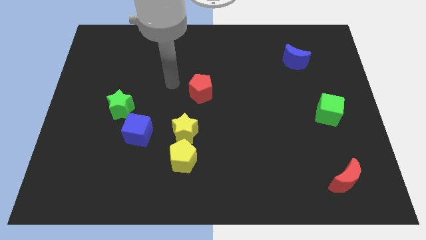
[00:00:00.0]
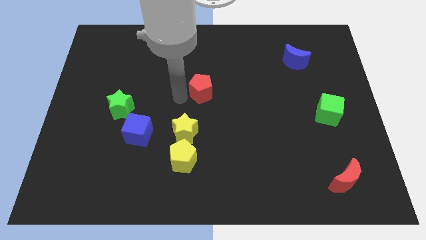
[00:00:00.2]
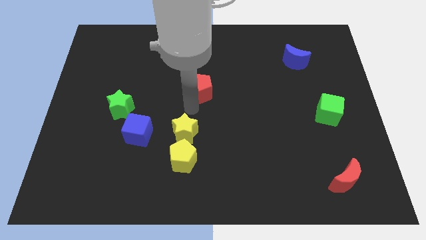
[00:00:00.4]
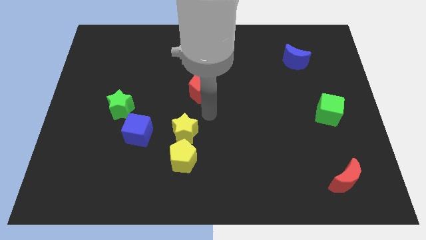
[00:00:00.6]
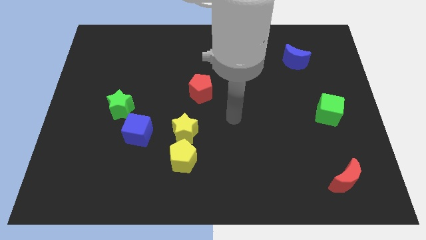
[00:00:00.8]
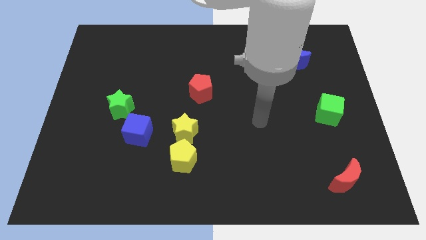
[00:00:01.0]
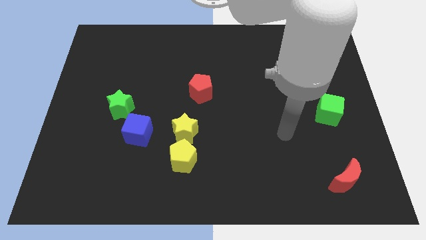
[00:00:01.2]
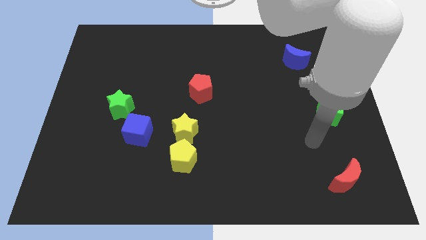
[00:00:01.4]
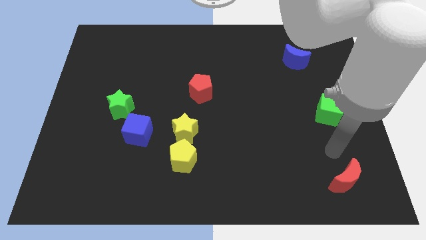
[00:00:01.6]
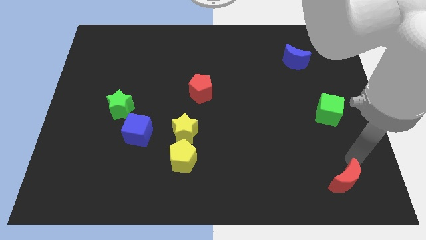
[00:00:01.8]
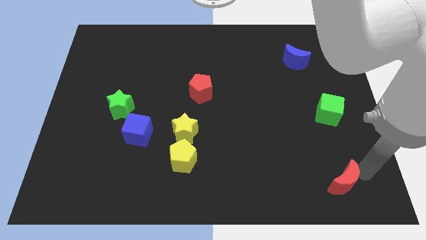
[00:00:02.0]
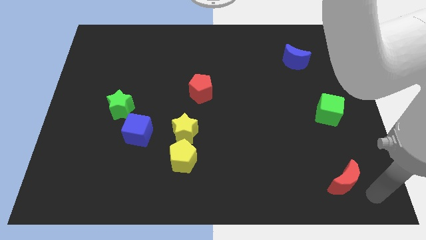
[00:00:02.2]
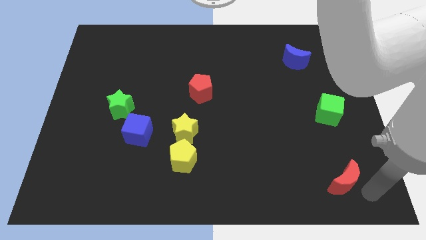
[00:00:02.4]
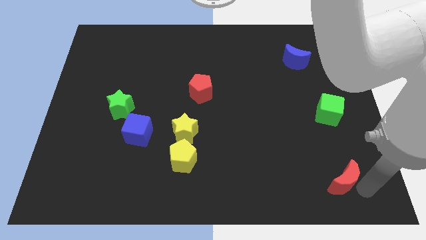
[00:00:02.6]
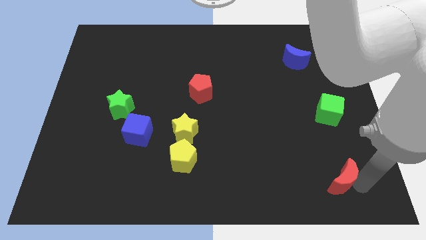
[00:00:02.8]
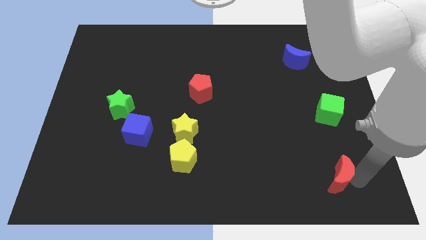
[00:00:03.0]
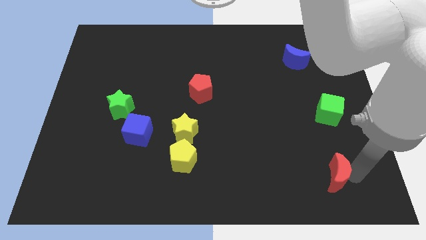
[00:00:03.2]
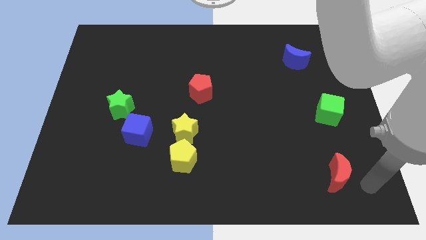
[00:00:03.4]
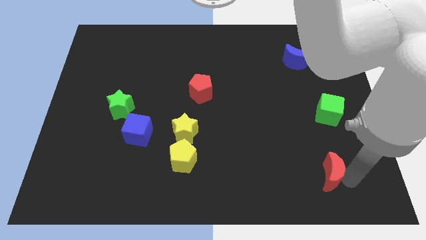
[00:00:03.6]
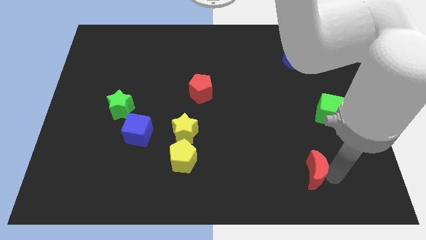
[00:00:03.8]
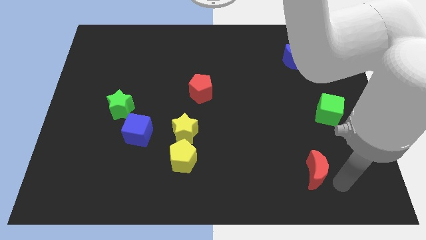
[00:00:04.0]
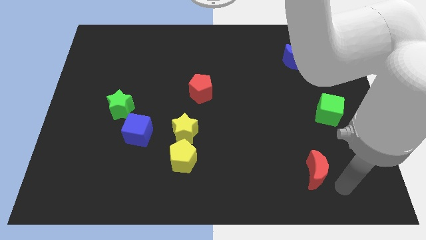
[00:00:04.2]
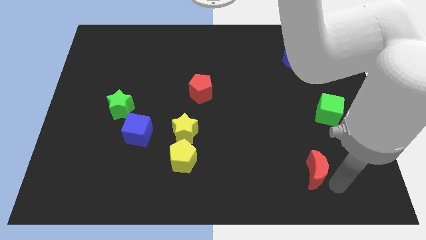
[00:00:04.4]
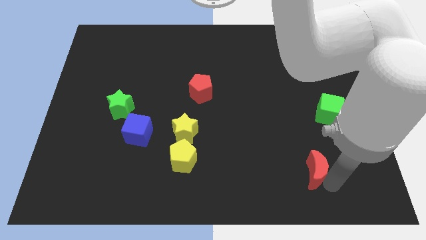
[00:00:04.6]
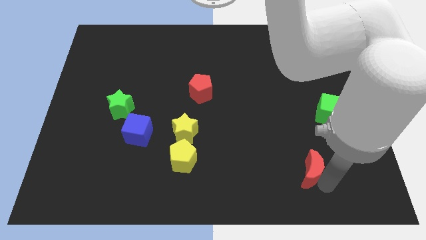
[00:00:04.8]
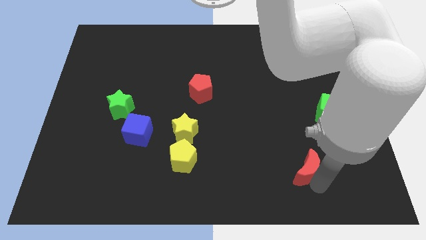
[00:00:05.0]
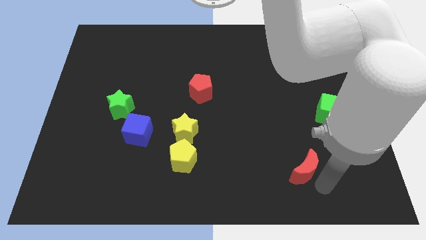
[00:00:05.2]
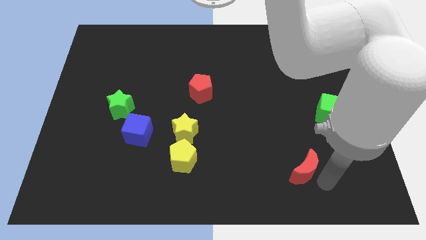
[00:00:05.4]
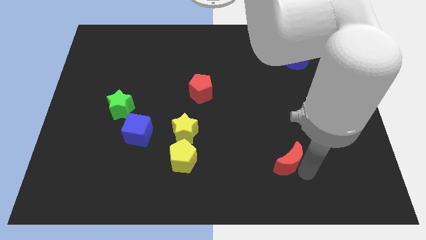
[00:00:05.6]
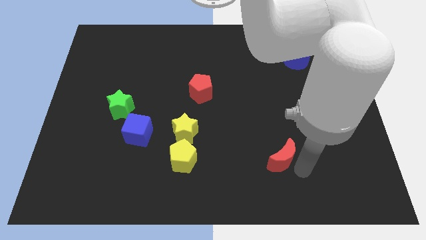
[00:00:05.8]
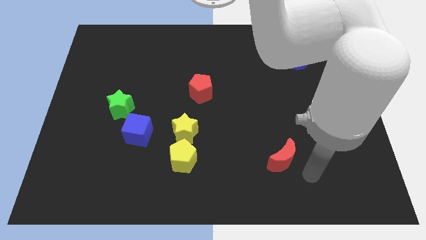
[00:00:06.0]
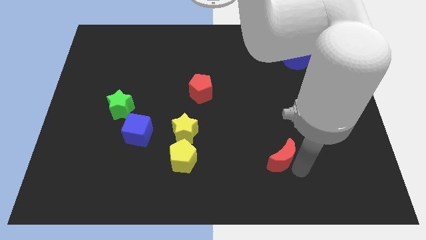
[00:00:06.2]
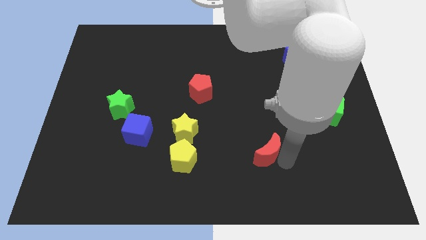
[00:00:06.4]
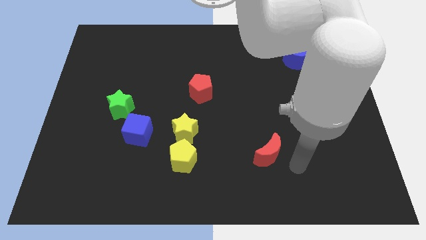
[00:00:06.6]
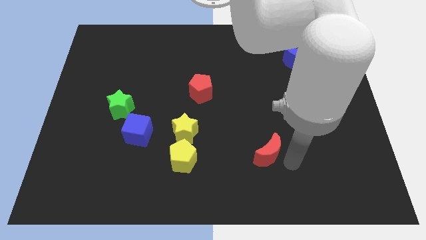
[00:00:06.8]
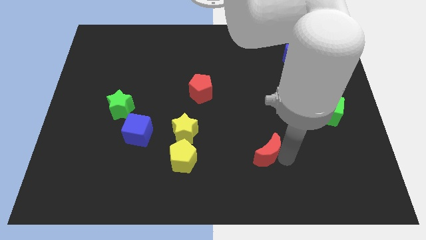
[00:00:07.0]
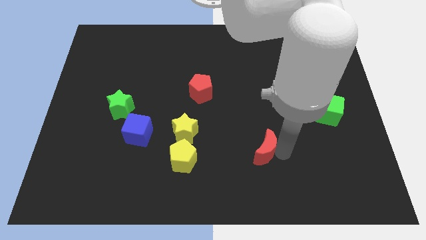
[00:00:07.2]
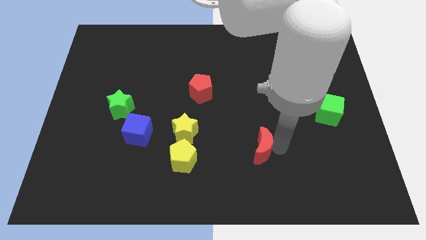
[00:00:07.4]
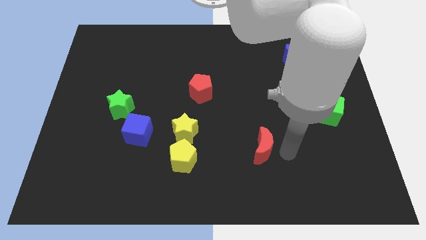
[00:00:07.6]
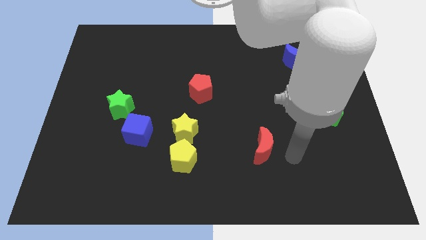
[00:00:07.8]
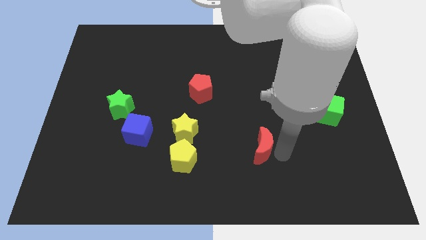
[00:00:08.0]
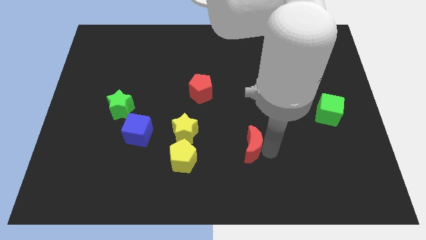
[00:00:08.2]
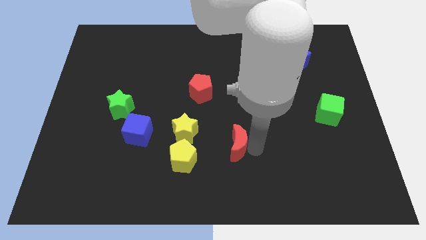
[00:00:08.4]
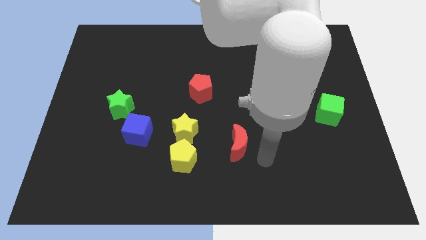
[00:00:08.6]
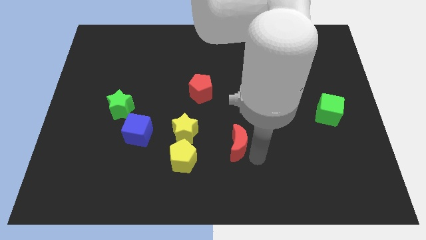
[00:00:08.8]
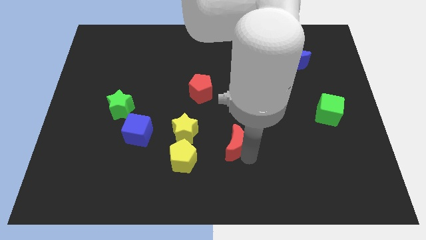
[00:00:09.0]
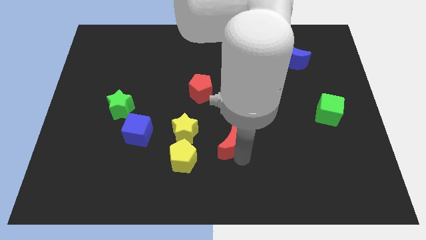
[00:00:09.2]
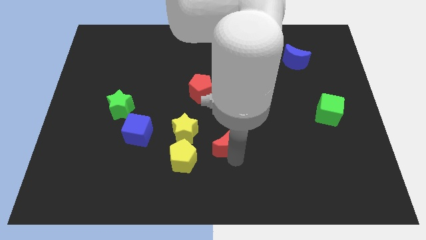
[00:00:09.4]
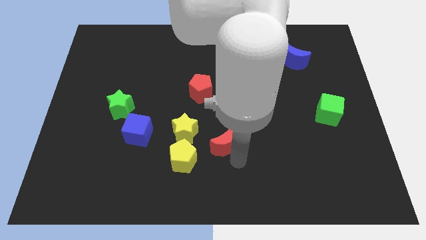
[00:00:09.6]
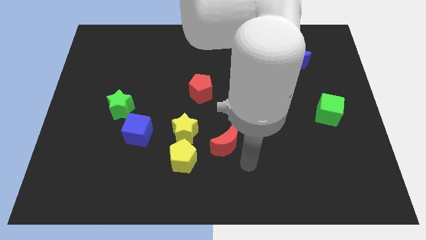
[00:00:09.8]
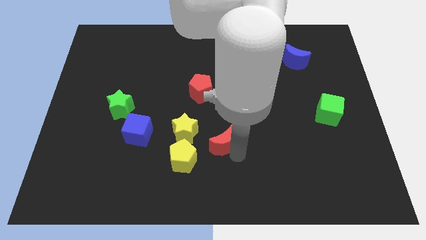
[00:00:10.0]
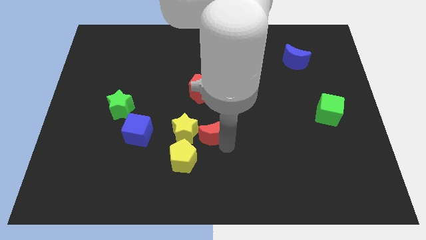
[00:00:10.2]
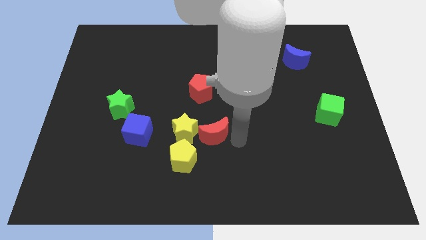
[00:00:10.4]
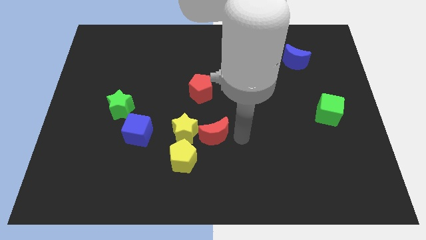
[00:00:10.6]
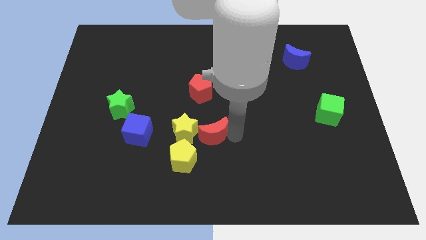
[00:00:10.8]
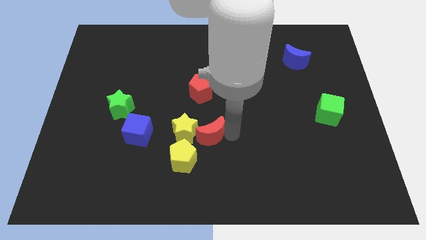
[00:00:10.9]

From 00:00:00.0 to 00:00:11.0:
slide the red moon towards the yellow star

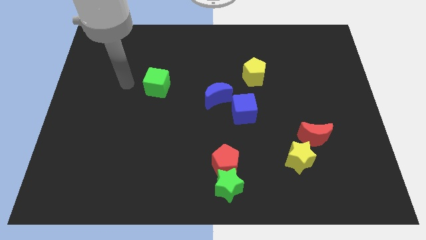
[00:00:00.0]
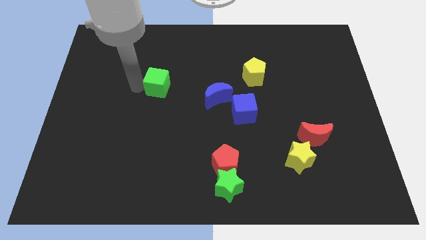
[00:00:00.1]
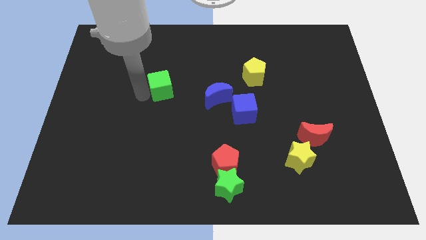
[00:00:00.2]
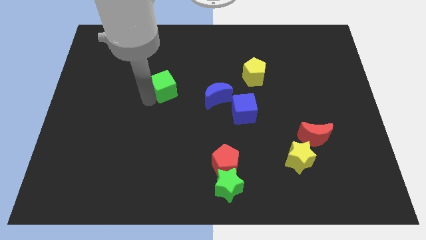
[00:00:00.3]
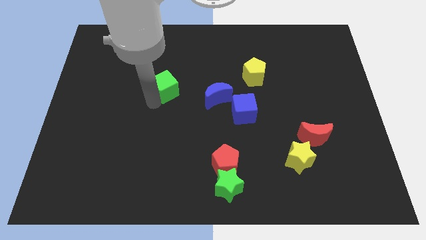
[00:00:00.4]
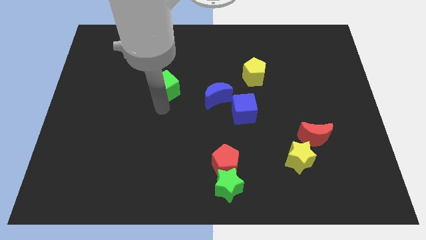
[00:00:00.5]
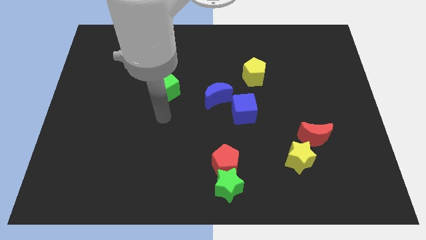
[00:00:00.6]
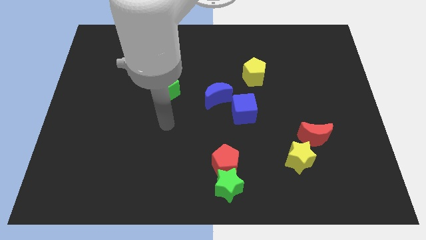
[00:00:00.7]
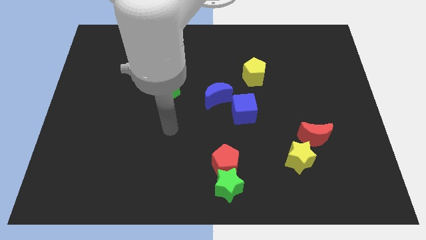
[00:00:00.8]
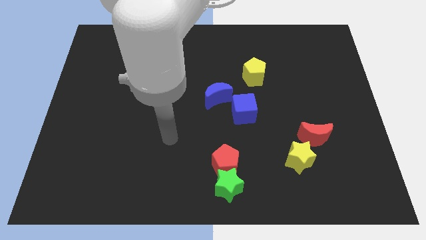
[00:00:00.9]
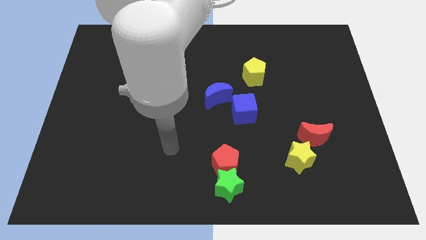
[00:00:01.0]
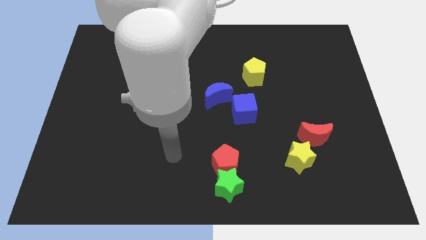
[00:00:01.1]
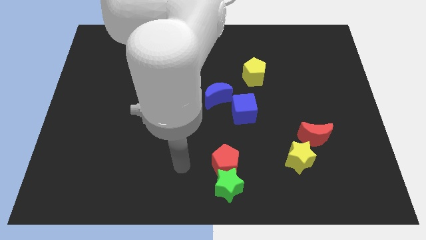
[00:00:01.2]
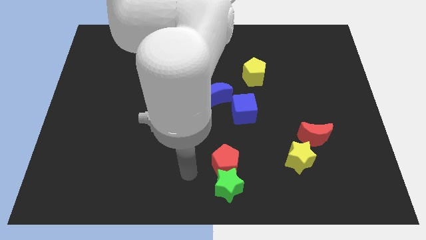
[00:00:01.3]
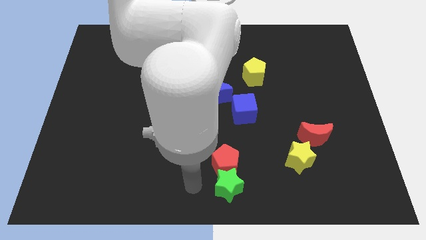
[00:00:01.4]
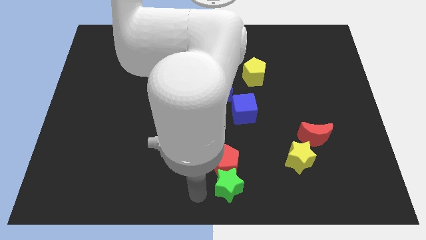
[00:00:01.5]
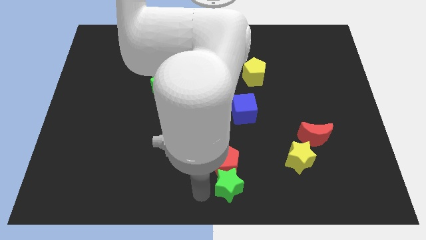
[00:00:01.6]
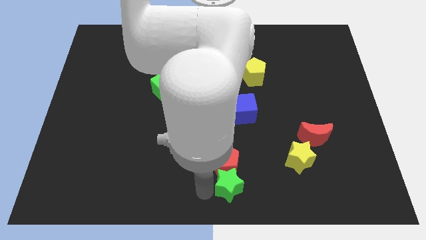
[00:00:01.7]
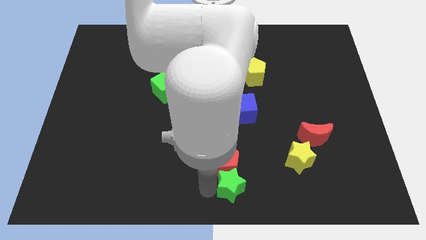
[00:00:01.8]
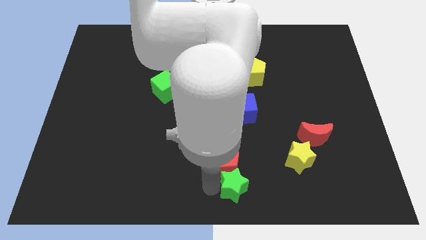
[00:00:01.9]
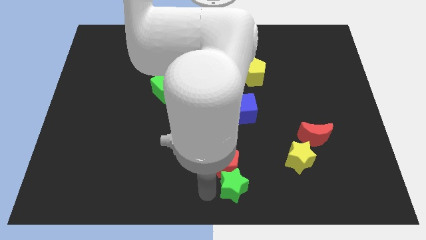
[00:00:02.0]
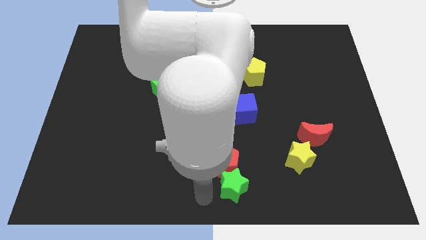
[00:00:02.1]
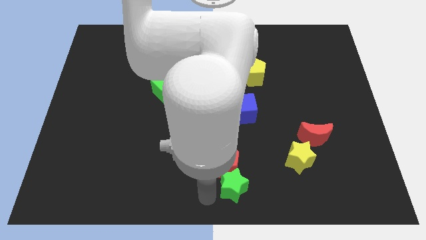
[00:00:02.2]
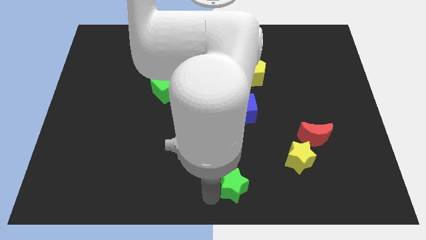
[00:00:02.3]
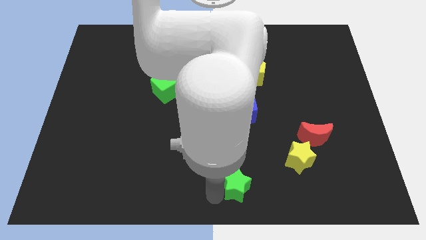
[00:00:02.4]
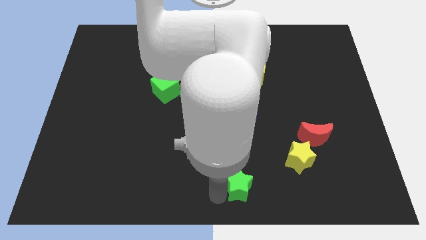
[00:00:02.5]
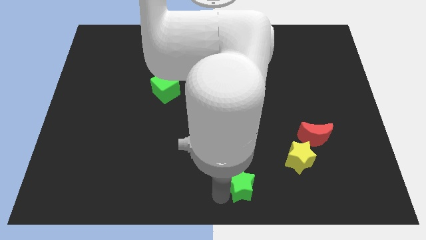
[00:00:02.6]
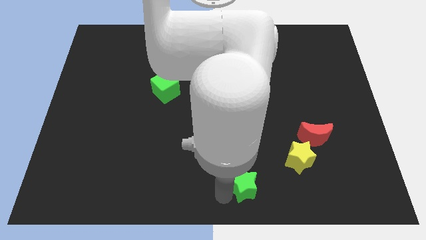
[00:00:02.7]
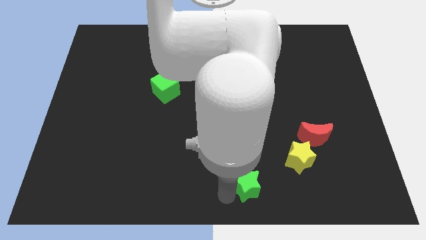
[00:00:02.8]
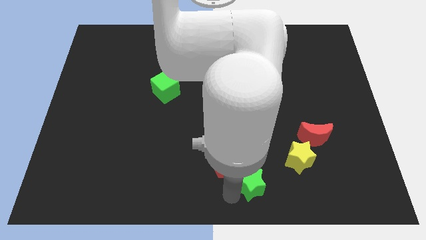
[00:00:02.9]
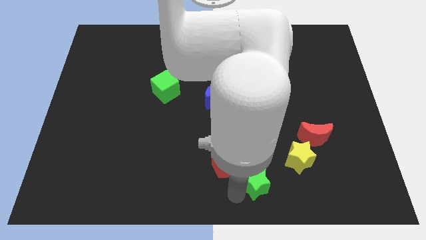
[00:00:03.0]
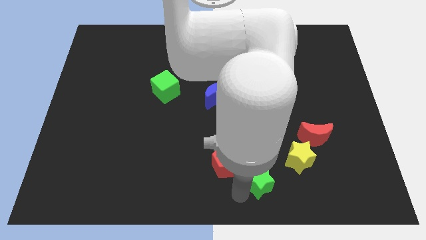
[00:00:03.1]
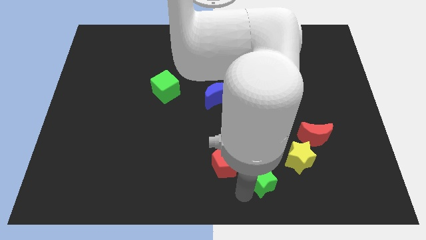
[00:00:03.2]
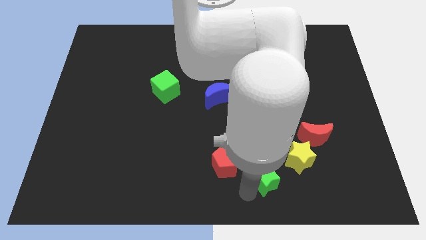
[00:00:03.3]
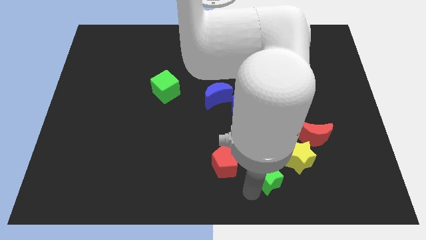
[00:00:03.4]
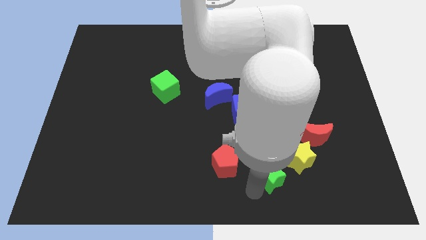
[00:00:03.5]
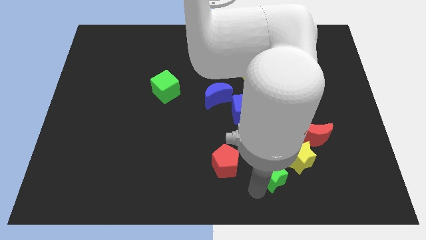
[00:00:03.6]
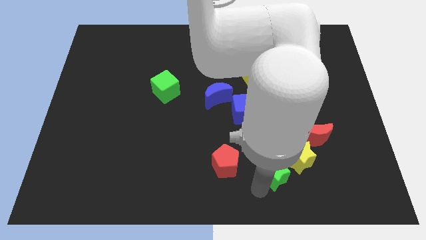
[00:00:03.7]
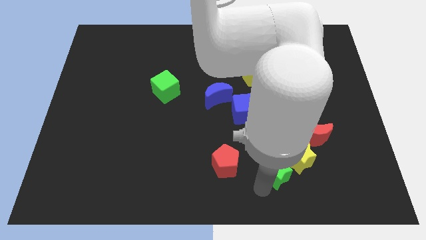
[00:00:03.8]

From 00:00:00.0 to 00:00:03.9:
move the green star close to the yellow star
